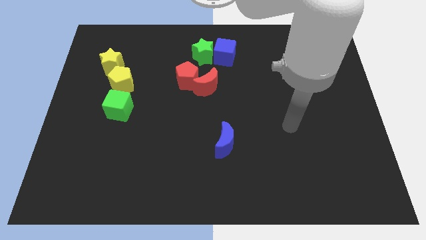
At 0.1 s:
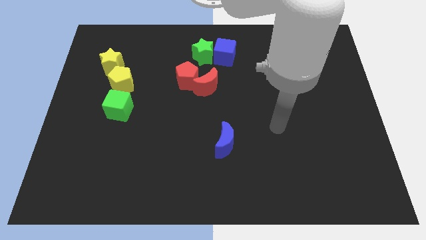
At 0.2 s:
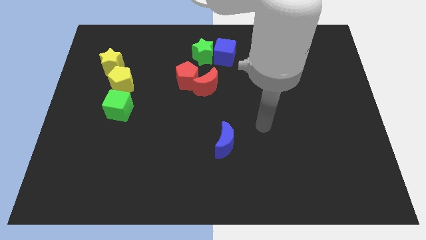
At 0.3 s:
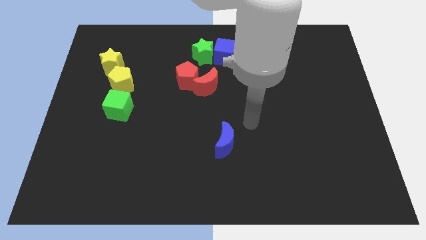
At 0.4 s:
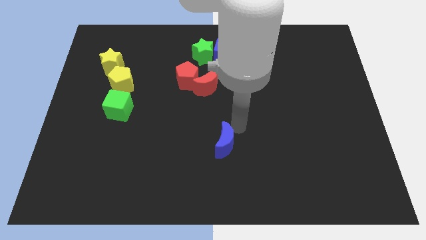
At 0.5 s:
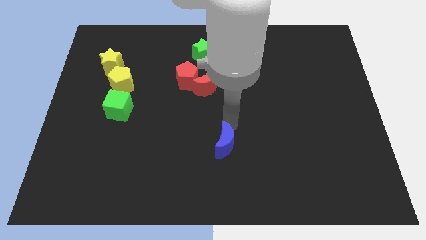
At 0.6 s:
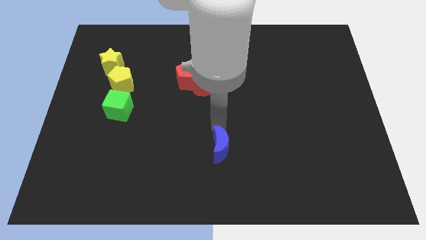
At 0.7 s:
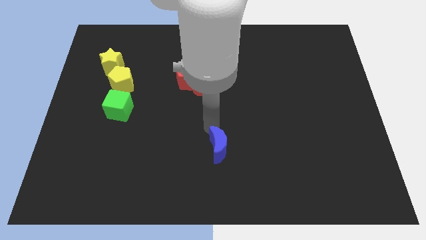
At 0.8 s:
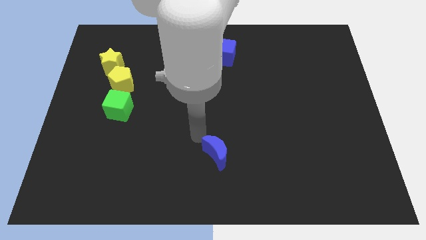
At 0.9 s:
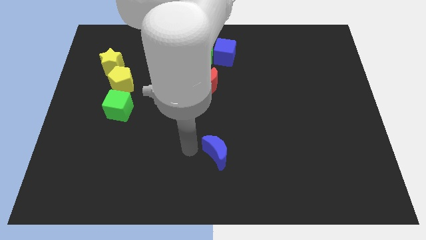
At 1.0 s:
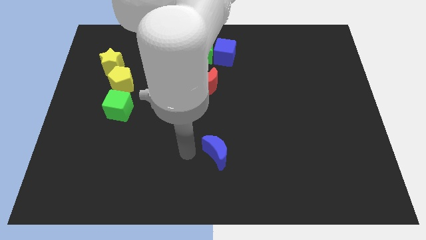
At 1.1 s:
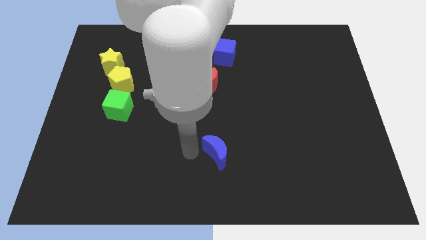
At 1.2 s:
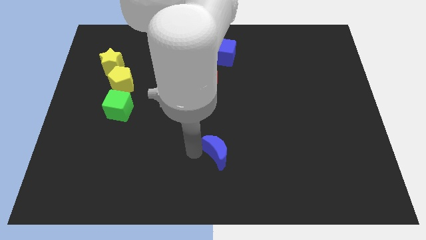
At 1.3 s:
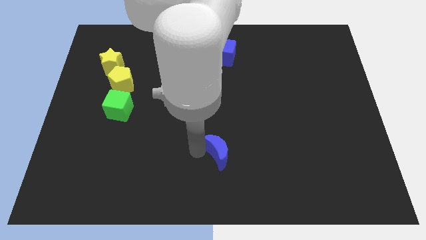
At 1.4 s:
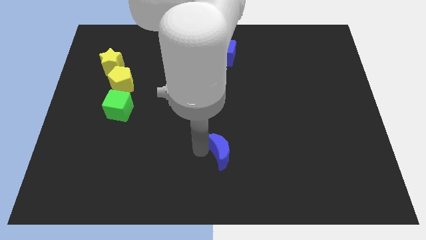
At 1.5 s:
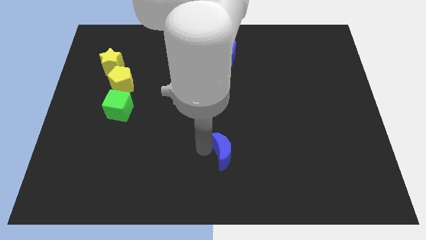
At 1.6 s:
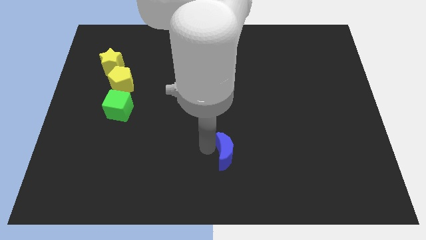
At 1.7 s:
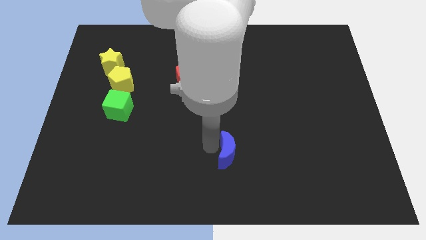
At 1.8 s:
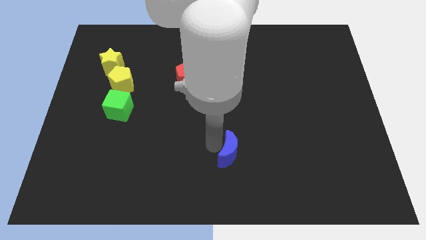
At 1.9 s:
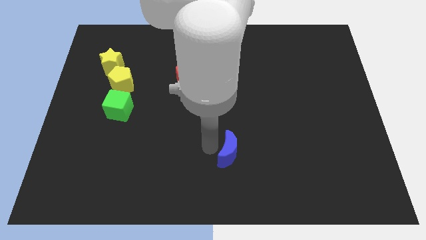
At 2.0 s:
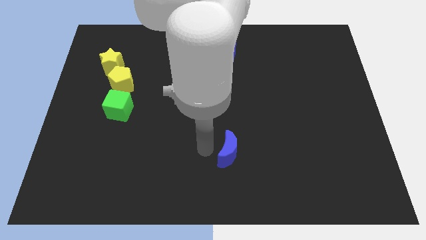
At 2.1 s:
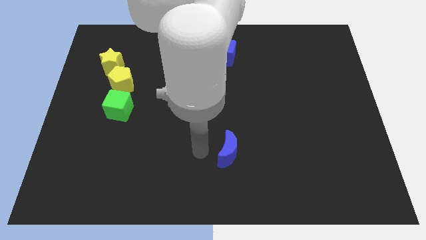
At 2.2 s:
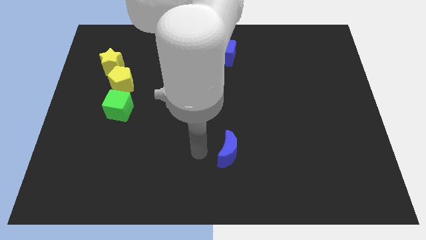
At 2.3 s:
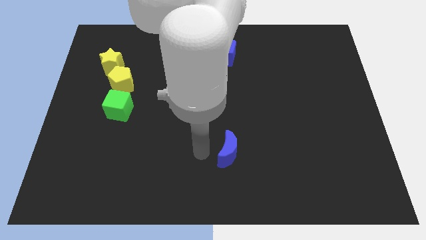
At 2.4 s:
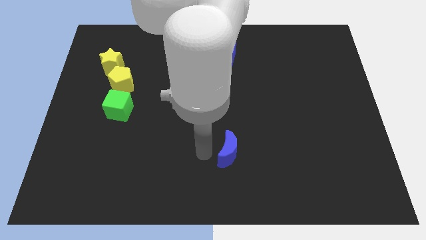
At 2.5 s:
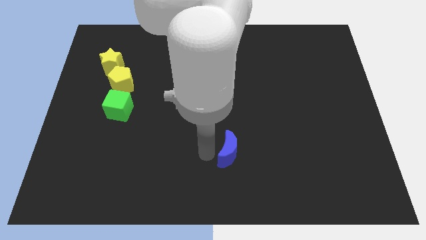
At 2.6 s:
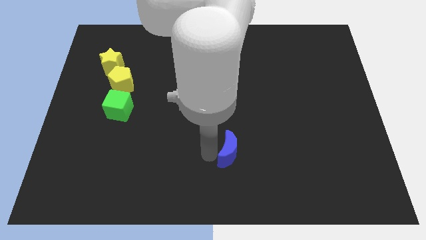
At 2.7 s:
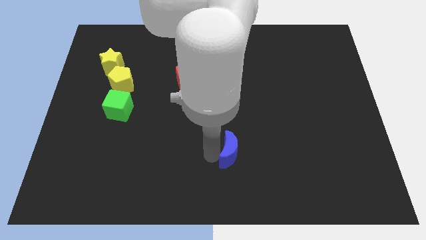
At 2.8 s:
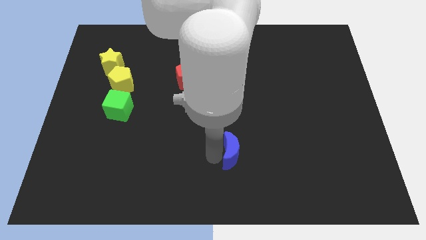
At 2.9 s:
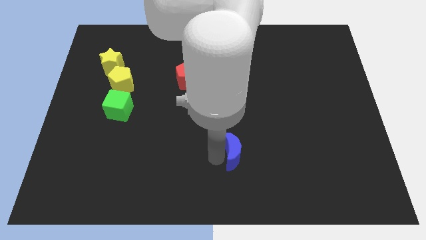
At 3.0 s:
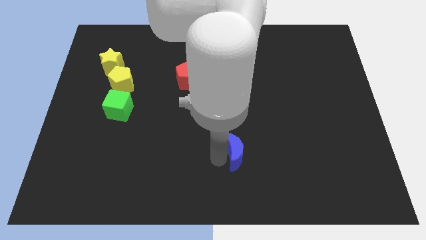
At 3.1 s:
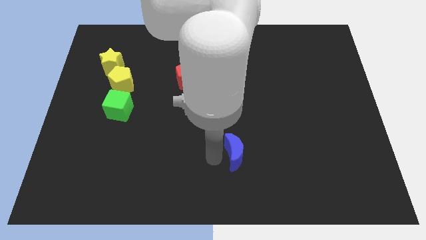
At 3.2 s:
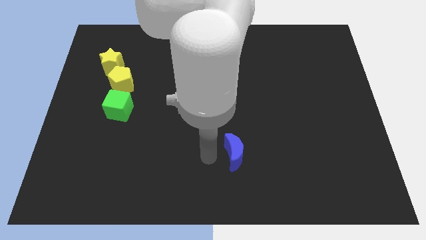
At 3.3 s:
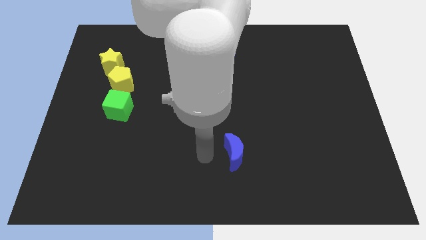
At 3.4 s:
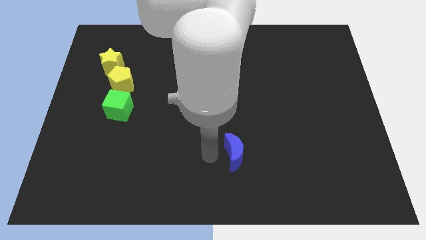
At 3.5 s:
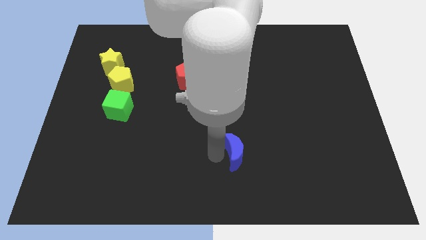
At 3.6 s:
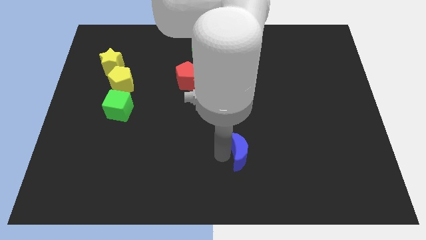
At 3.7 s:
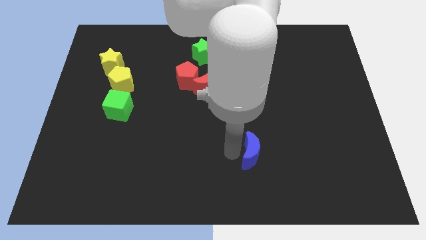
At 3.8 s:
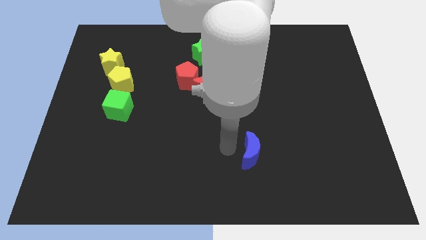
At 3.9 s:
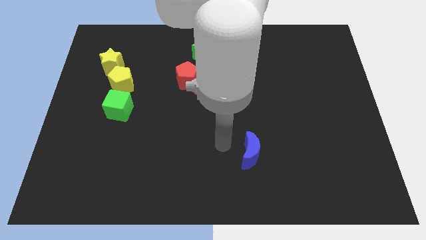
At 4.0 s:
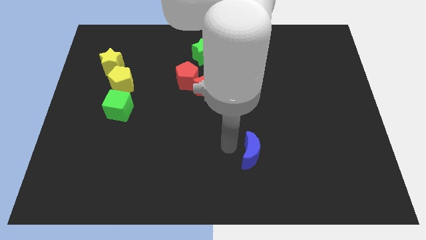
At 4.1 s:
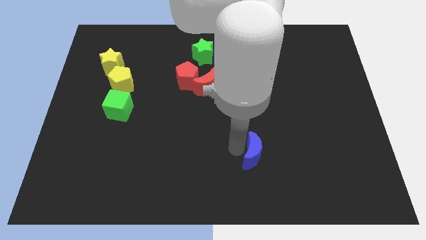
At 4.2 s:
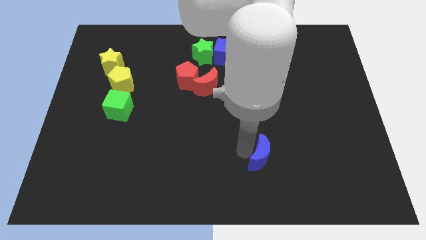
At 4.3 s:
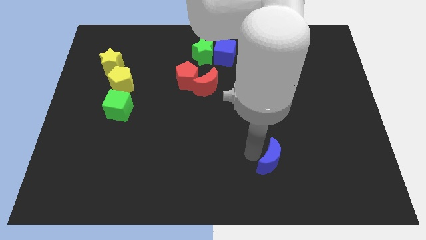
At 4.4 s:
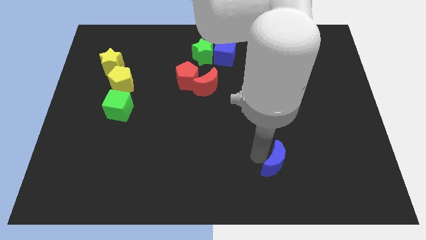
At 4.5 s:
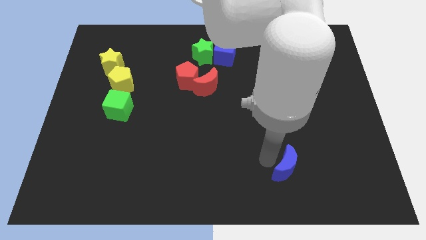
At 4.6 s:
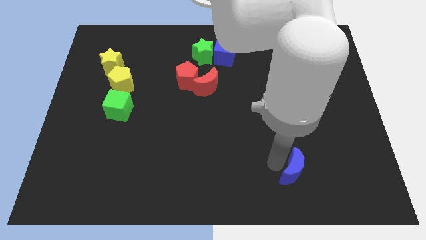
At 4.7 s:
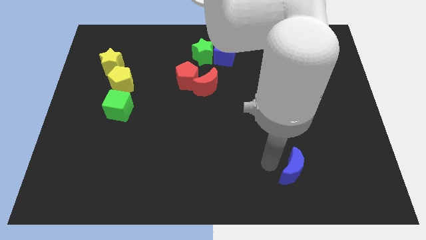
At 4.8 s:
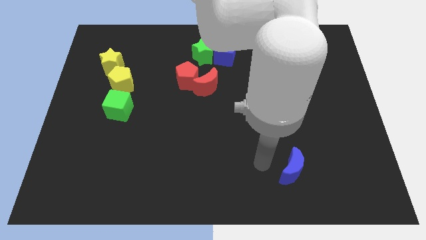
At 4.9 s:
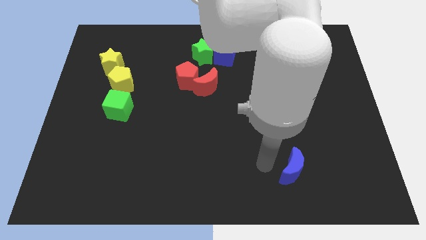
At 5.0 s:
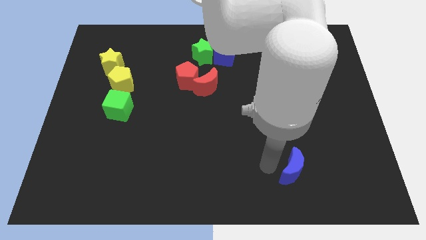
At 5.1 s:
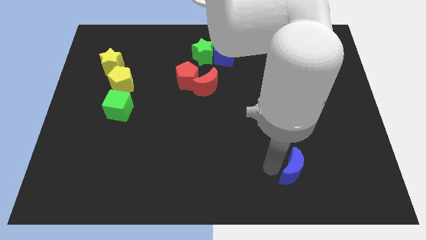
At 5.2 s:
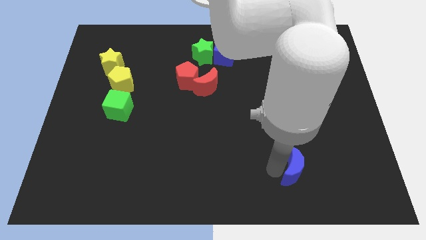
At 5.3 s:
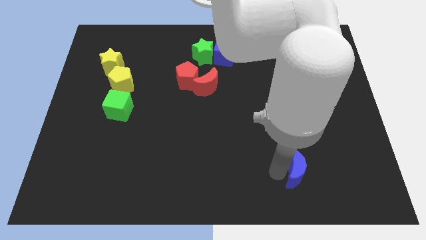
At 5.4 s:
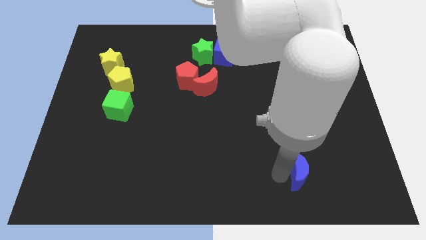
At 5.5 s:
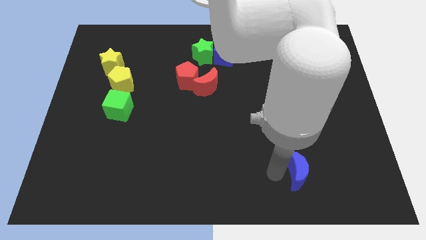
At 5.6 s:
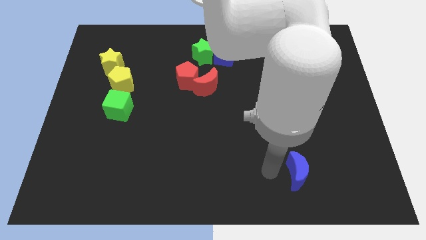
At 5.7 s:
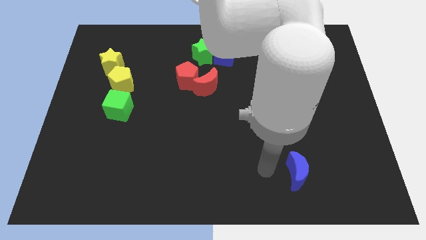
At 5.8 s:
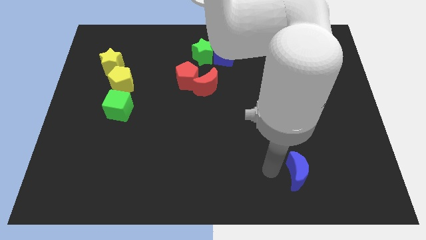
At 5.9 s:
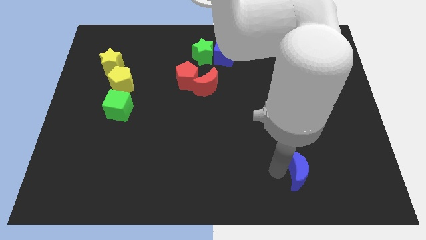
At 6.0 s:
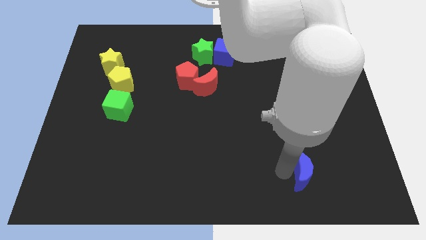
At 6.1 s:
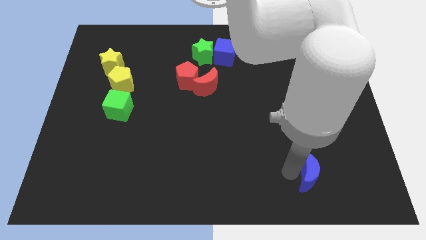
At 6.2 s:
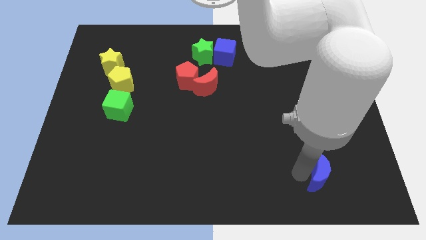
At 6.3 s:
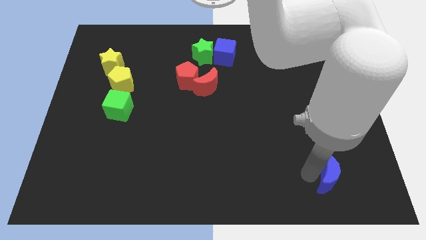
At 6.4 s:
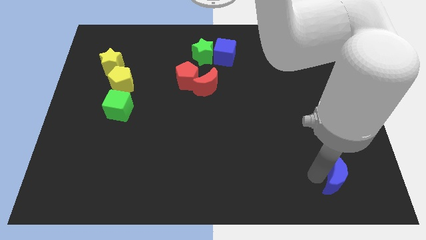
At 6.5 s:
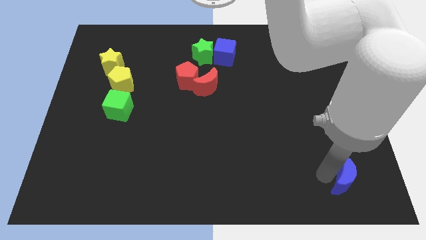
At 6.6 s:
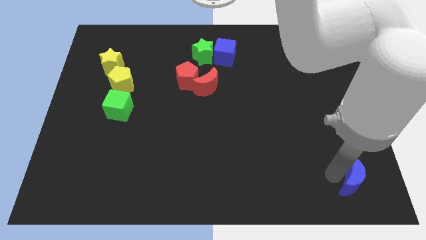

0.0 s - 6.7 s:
slide the blue moon to the bottom right of the board

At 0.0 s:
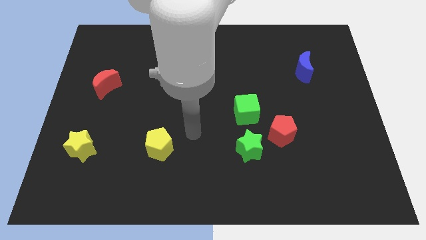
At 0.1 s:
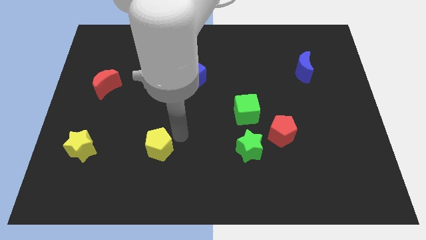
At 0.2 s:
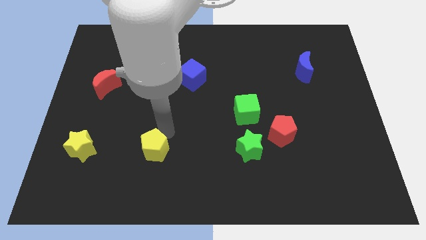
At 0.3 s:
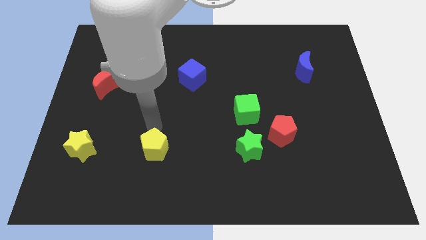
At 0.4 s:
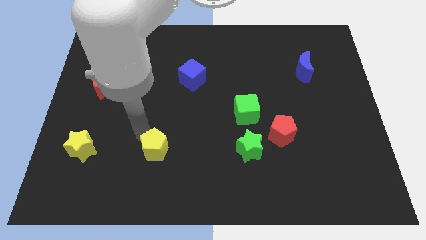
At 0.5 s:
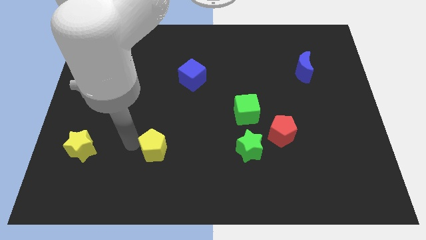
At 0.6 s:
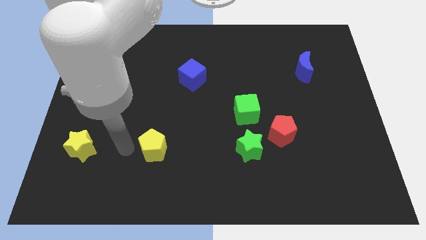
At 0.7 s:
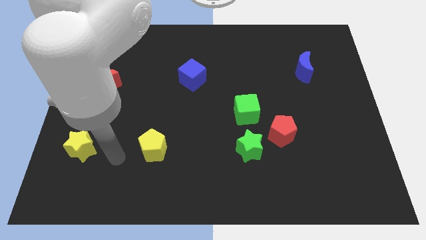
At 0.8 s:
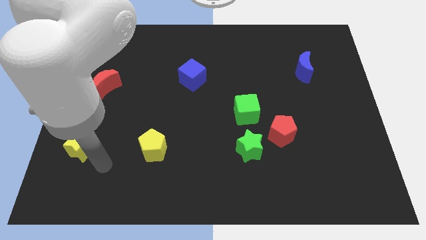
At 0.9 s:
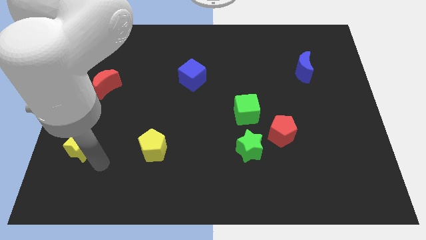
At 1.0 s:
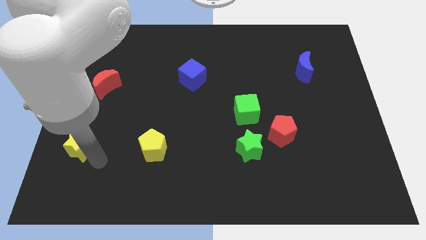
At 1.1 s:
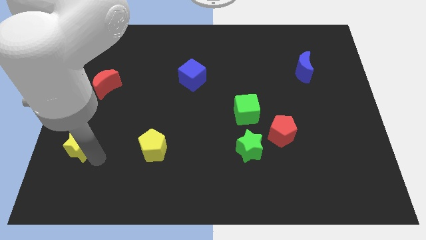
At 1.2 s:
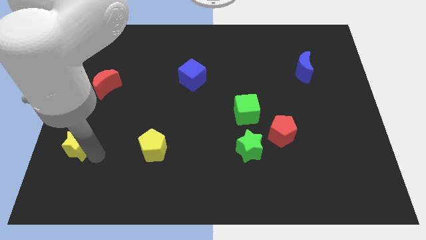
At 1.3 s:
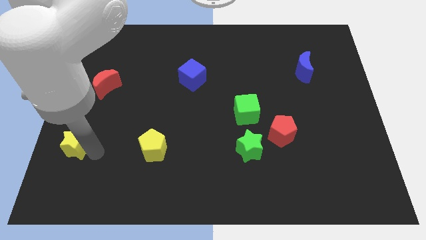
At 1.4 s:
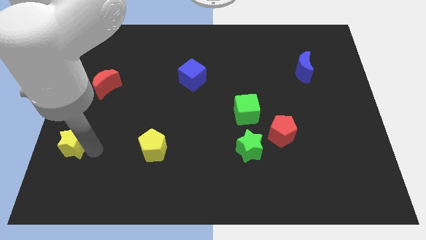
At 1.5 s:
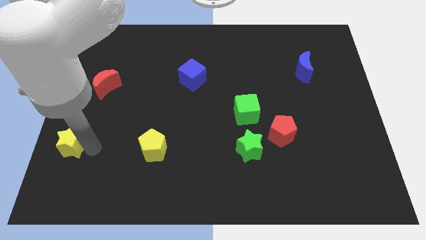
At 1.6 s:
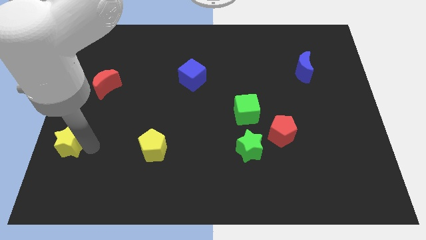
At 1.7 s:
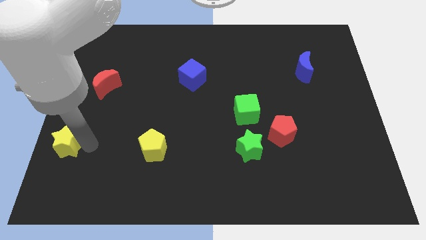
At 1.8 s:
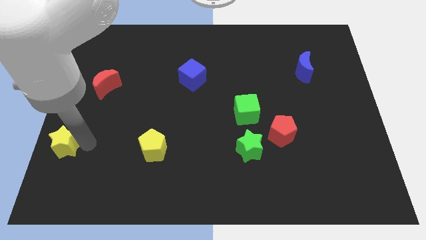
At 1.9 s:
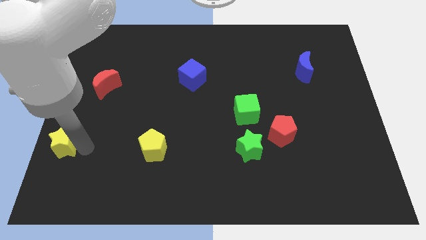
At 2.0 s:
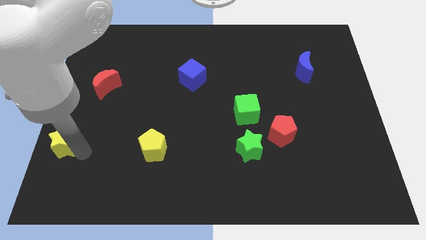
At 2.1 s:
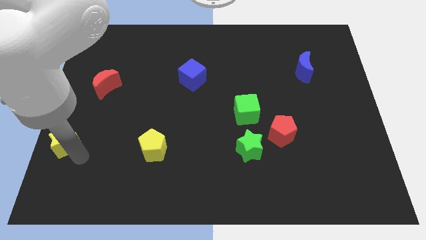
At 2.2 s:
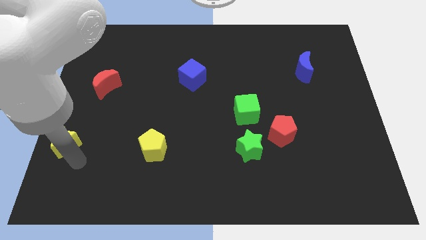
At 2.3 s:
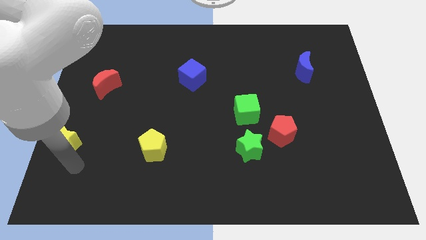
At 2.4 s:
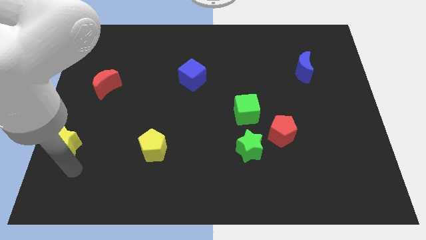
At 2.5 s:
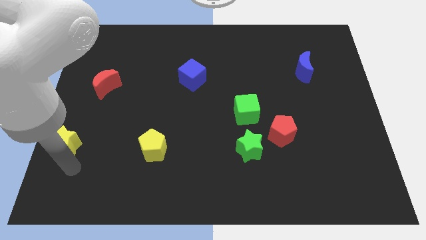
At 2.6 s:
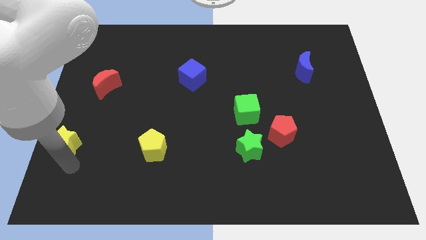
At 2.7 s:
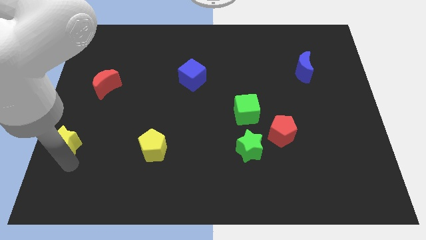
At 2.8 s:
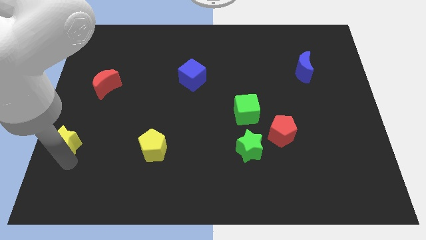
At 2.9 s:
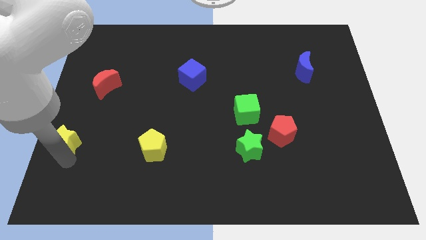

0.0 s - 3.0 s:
push the yellow star to the left side of the board
